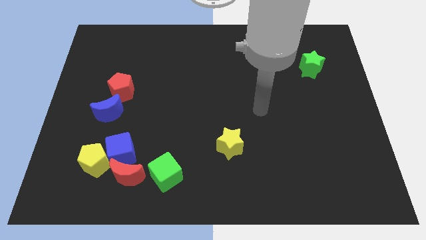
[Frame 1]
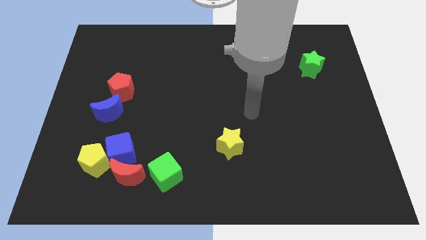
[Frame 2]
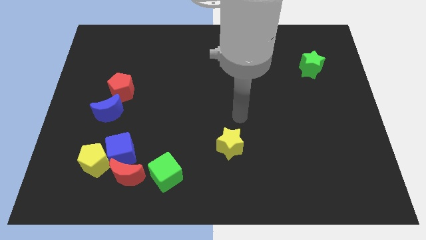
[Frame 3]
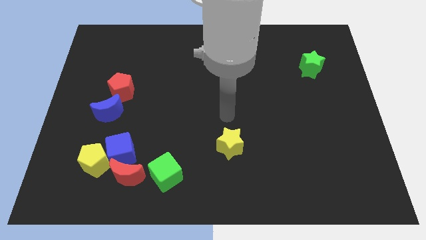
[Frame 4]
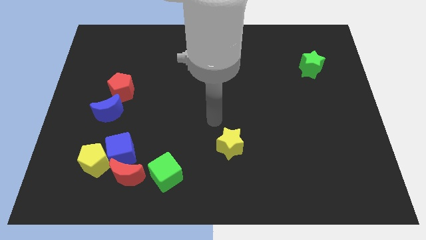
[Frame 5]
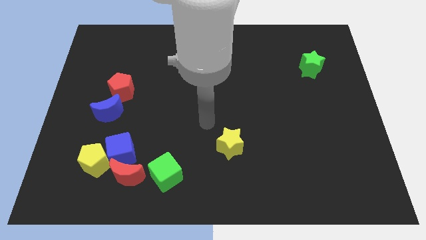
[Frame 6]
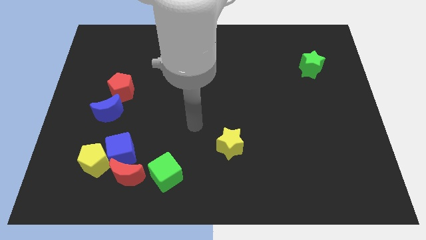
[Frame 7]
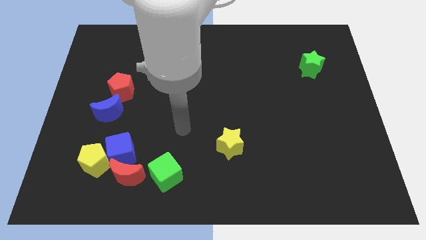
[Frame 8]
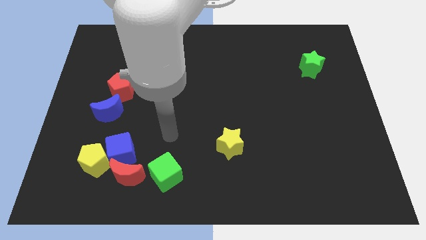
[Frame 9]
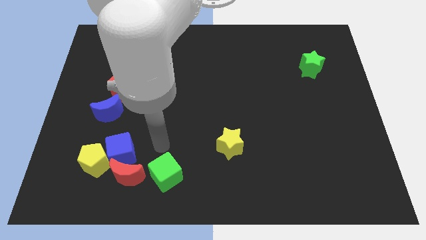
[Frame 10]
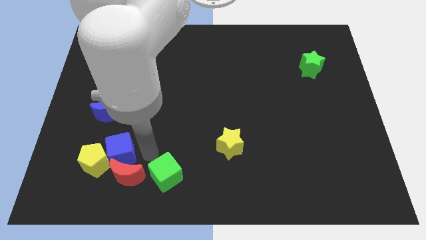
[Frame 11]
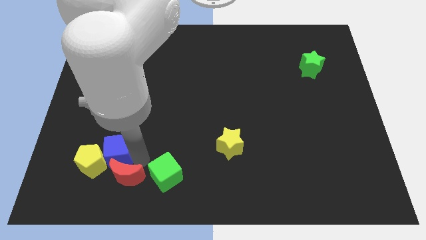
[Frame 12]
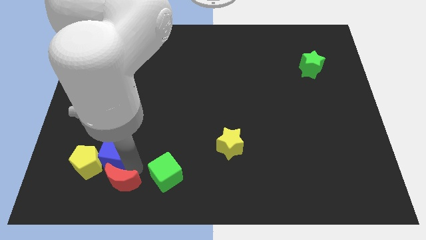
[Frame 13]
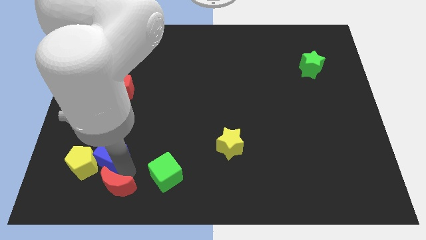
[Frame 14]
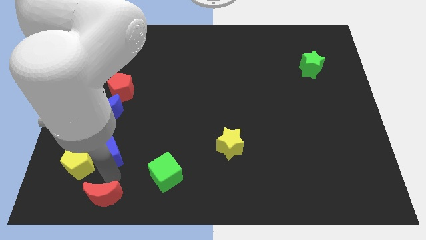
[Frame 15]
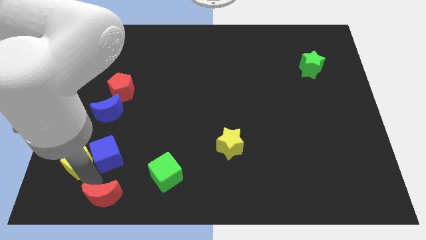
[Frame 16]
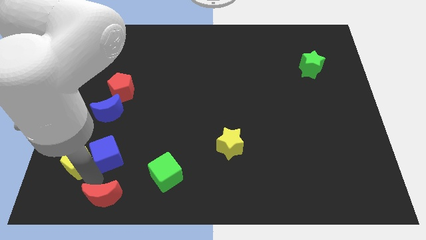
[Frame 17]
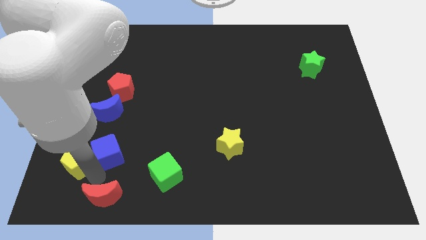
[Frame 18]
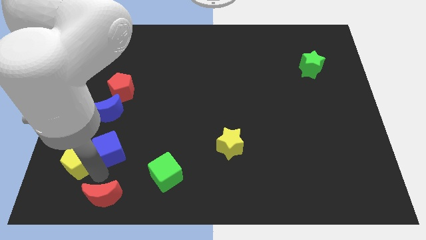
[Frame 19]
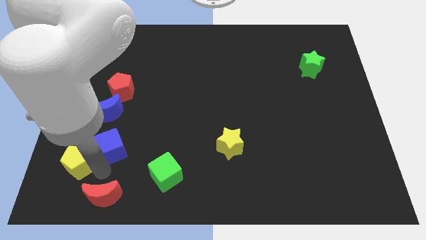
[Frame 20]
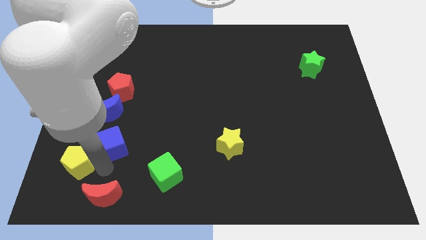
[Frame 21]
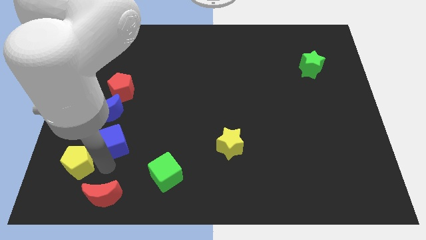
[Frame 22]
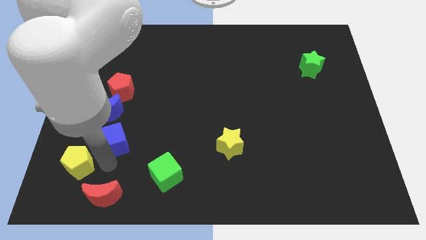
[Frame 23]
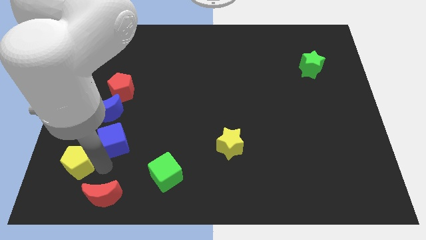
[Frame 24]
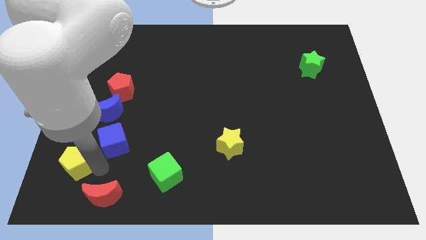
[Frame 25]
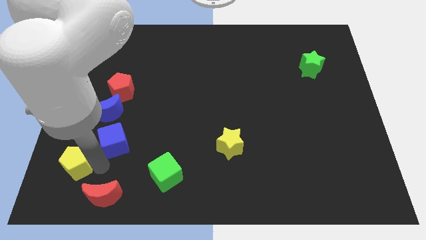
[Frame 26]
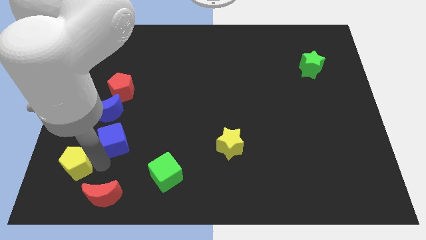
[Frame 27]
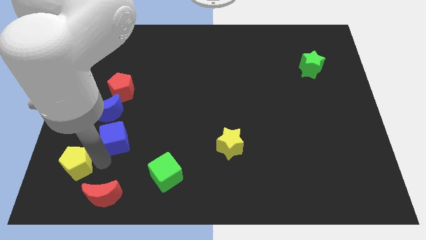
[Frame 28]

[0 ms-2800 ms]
move the blue cube away from the yellow pentagon and red moon

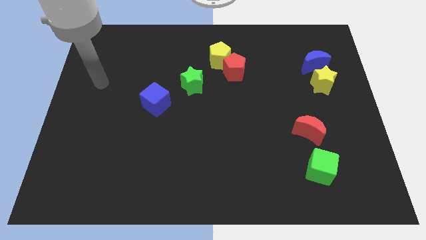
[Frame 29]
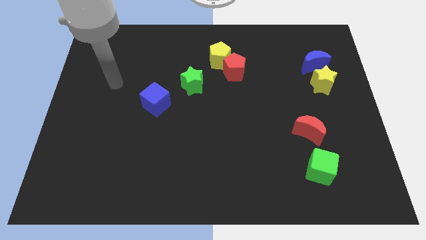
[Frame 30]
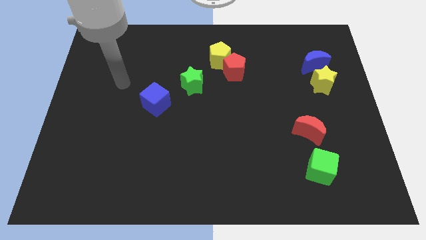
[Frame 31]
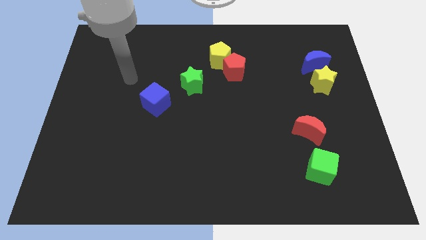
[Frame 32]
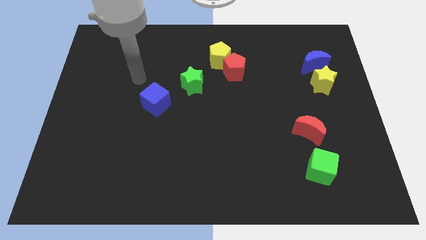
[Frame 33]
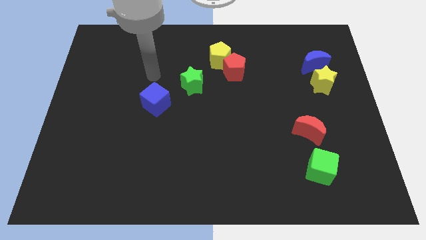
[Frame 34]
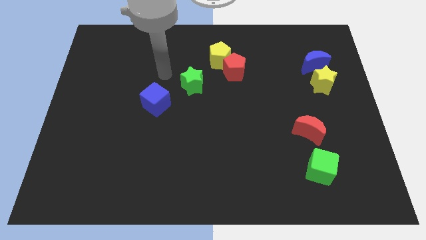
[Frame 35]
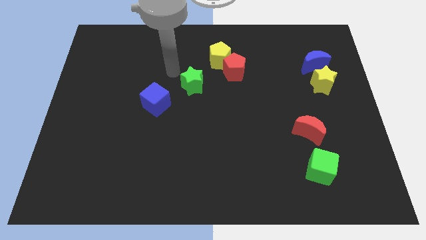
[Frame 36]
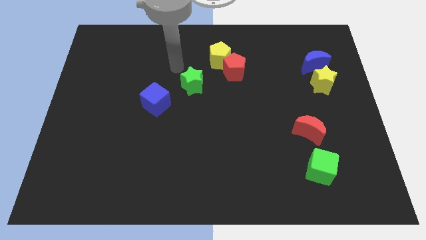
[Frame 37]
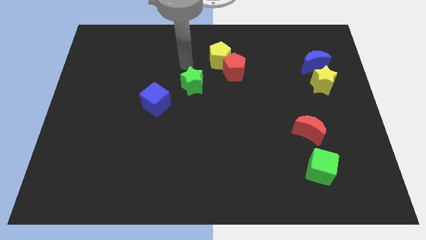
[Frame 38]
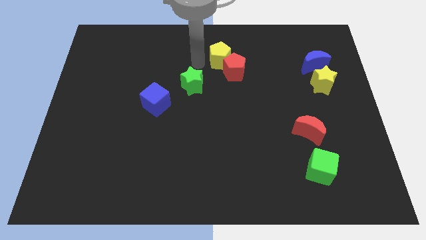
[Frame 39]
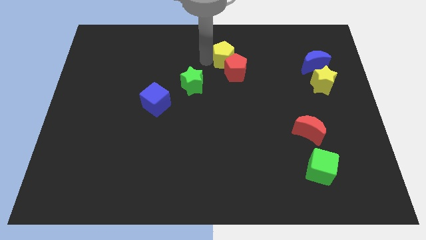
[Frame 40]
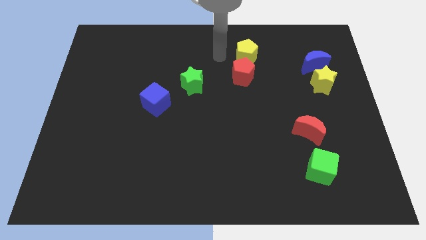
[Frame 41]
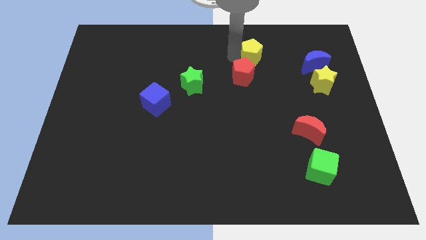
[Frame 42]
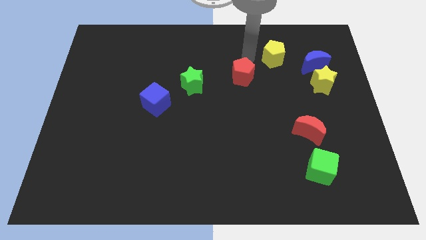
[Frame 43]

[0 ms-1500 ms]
separate the red pentagon from the yellow pentagon

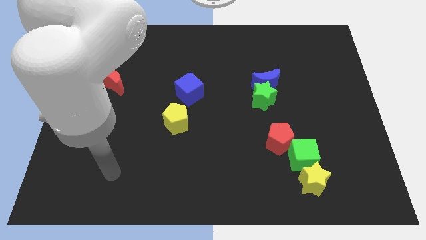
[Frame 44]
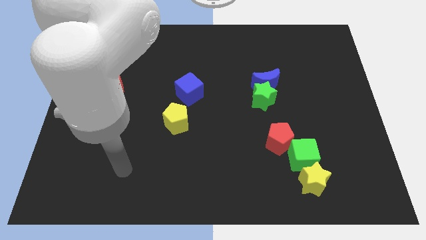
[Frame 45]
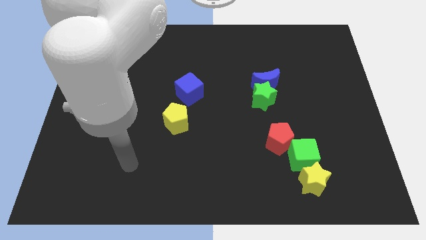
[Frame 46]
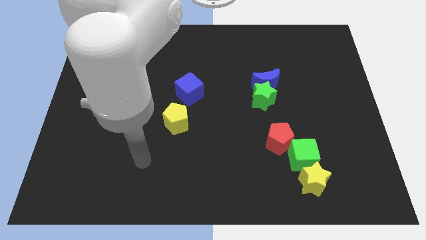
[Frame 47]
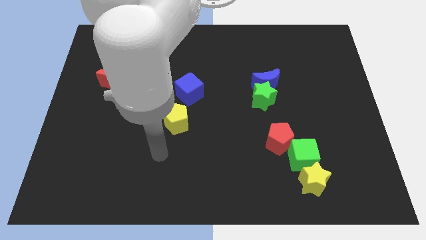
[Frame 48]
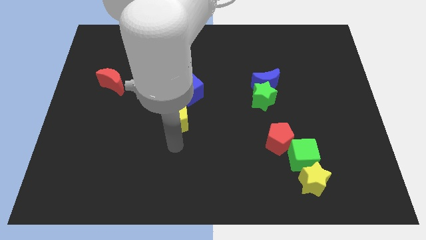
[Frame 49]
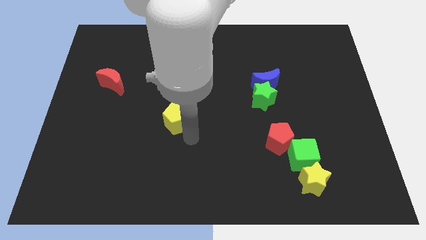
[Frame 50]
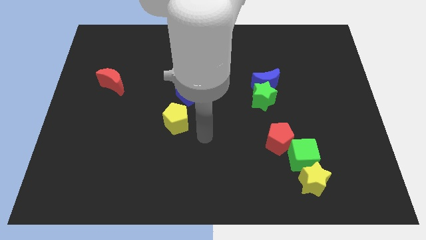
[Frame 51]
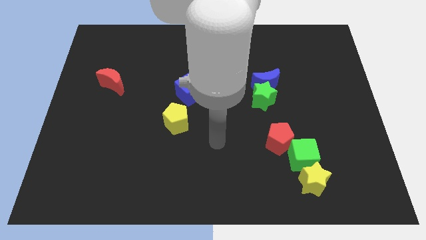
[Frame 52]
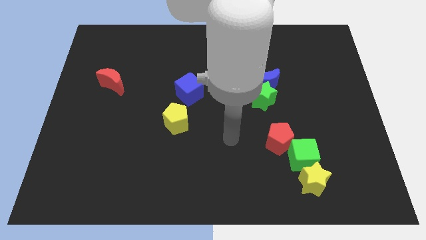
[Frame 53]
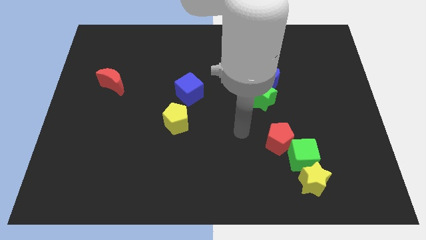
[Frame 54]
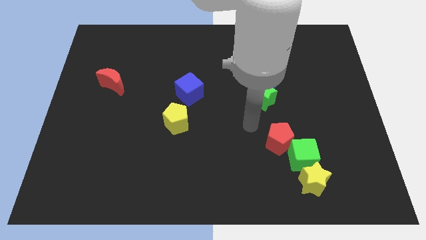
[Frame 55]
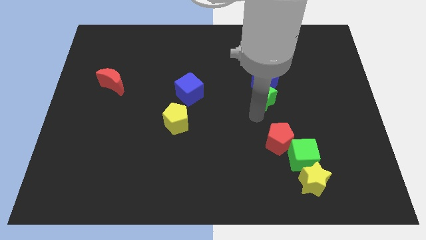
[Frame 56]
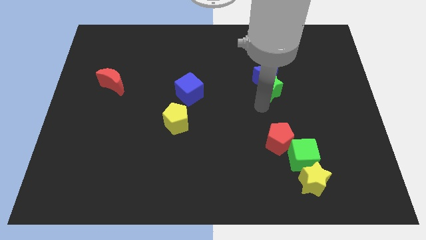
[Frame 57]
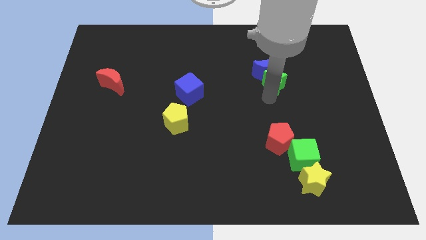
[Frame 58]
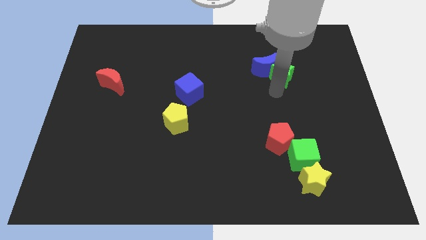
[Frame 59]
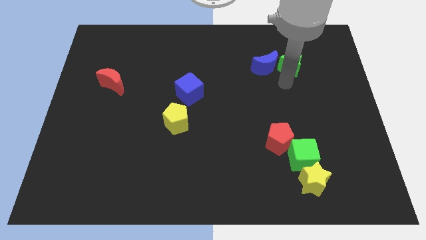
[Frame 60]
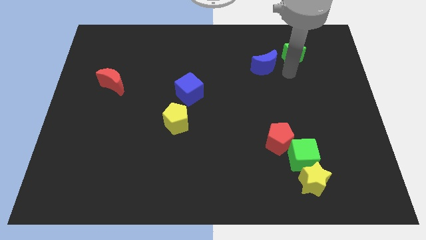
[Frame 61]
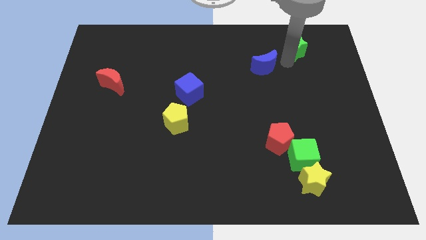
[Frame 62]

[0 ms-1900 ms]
pull the blue moon apart from the green star

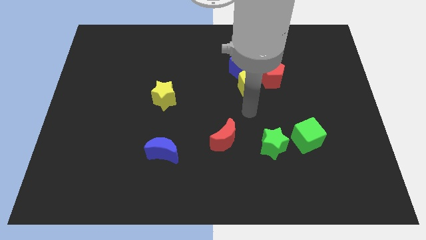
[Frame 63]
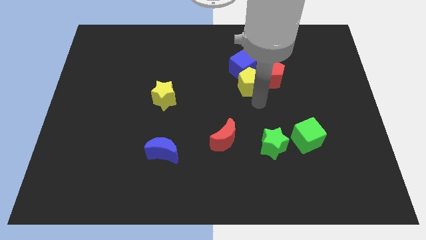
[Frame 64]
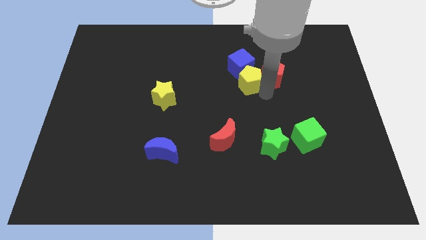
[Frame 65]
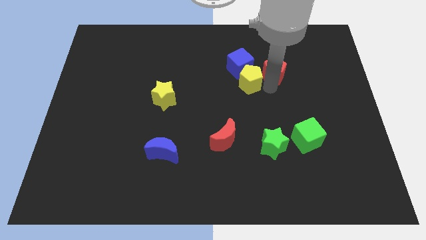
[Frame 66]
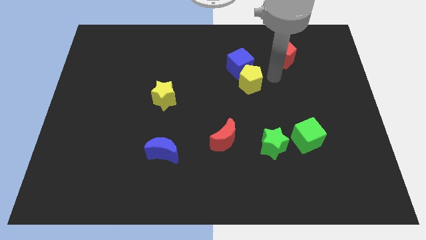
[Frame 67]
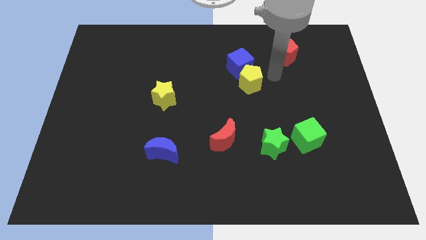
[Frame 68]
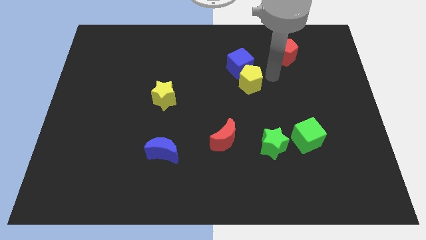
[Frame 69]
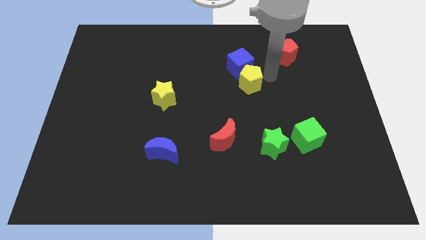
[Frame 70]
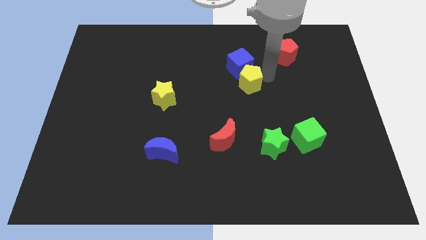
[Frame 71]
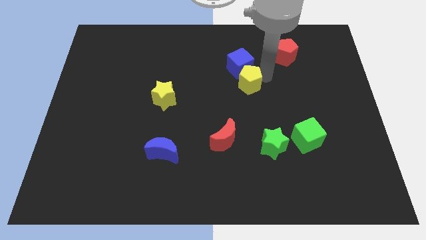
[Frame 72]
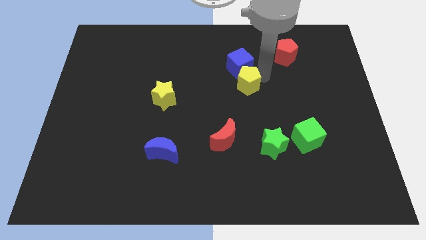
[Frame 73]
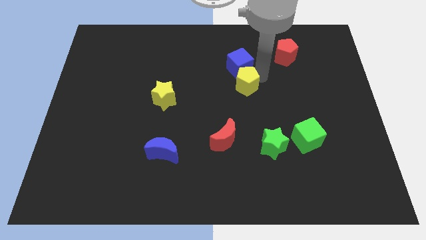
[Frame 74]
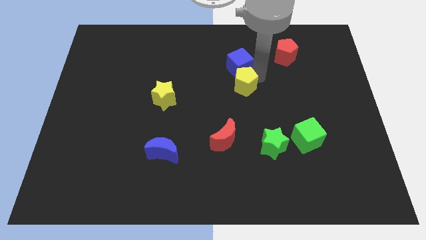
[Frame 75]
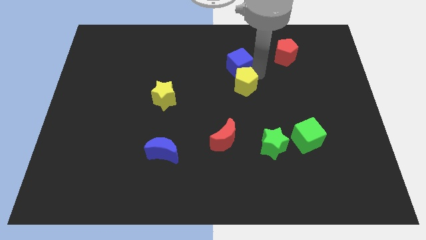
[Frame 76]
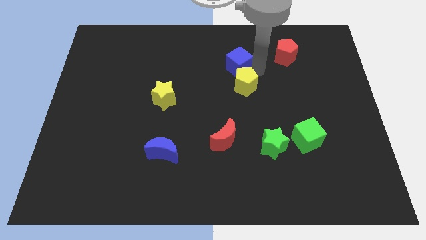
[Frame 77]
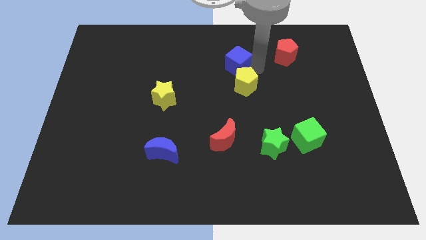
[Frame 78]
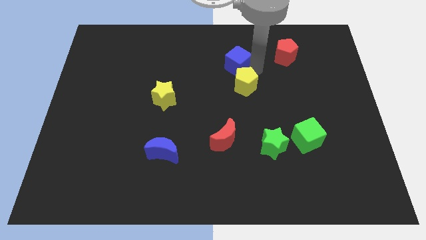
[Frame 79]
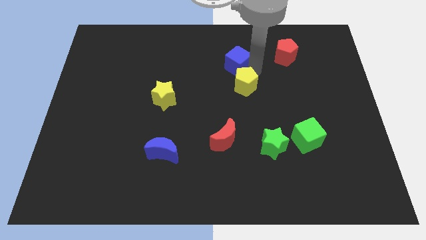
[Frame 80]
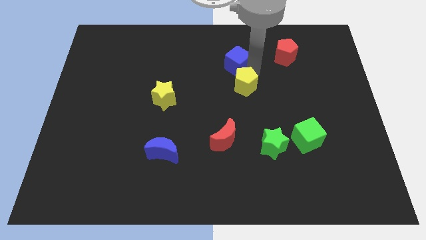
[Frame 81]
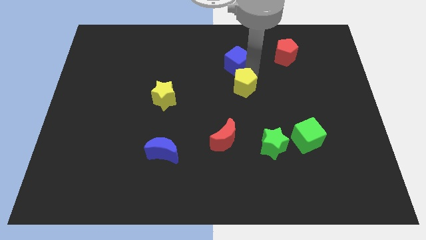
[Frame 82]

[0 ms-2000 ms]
move the yellow pentagon away from the blue cube and red pentagon

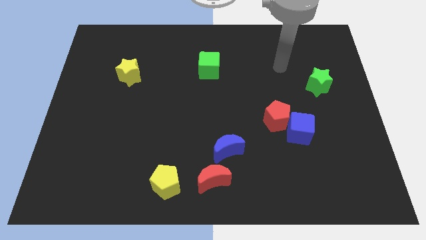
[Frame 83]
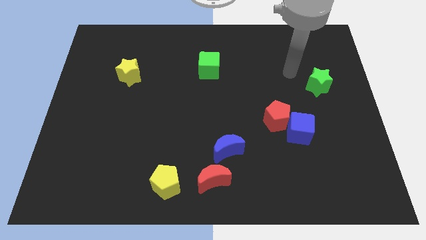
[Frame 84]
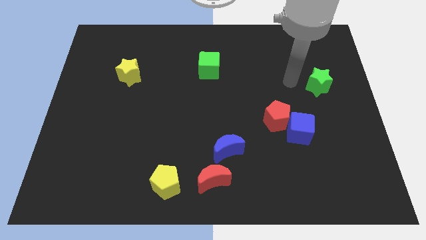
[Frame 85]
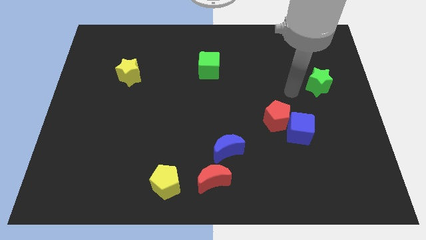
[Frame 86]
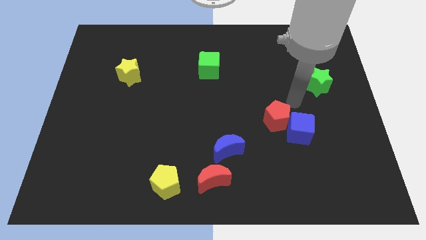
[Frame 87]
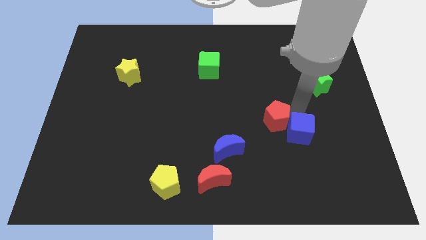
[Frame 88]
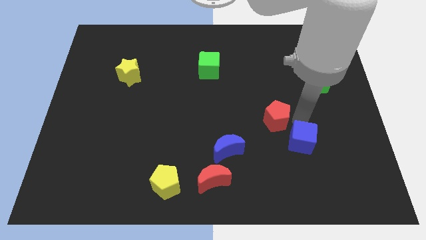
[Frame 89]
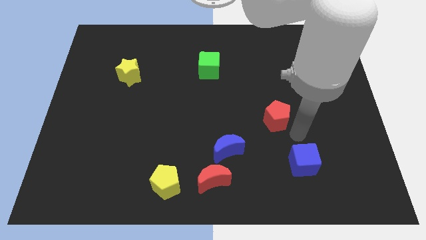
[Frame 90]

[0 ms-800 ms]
move the red pentagon away from the blue cube

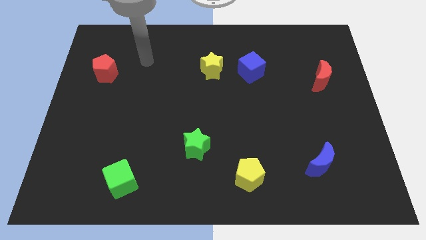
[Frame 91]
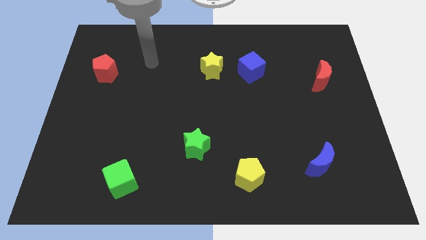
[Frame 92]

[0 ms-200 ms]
separate the blue cube from the yellow star
